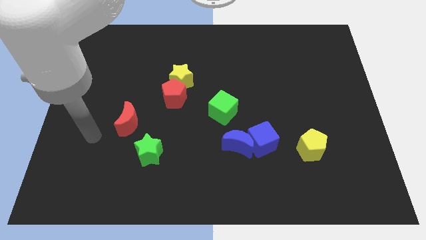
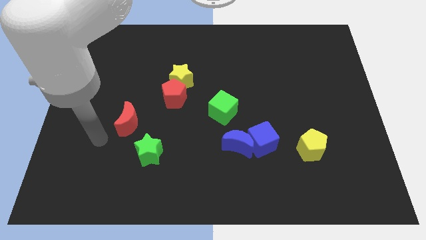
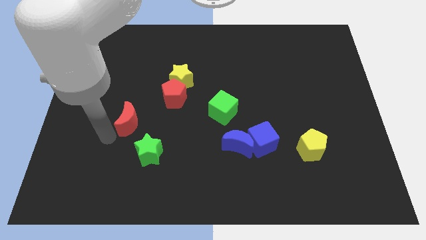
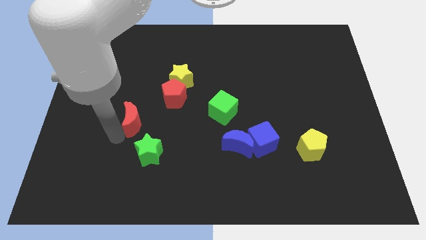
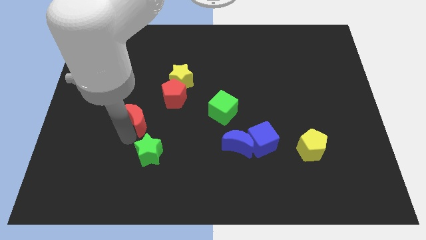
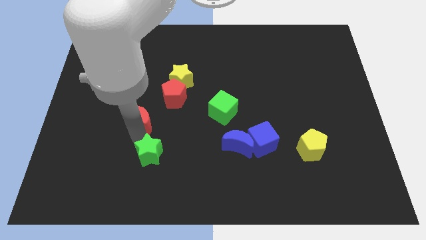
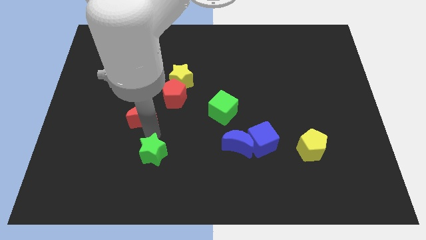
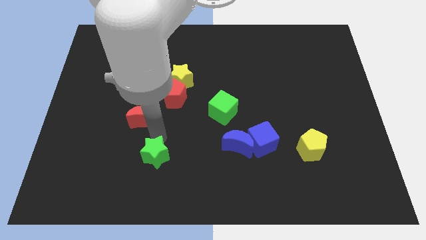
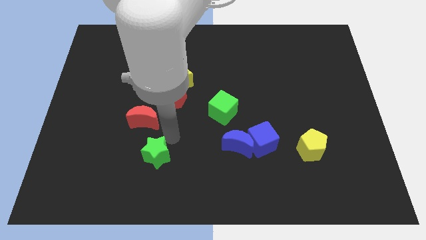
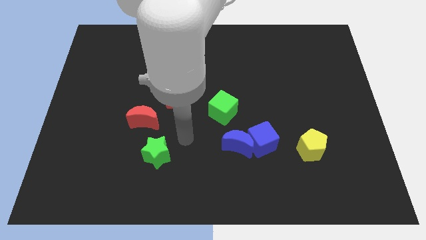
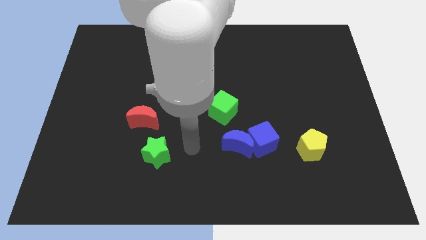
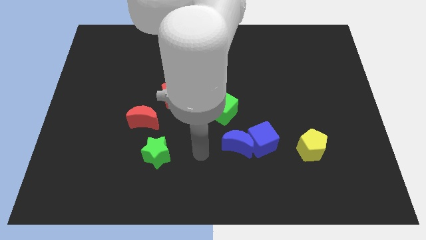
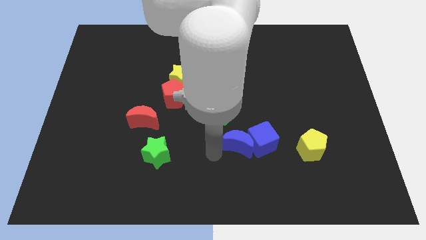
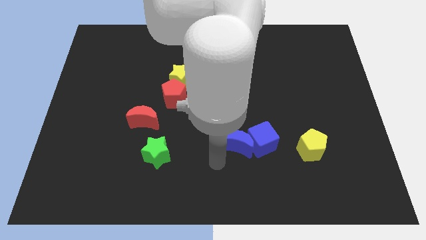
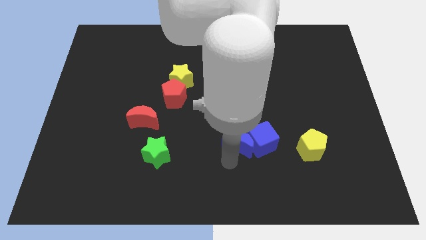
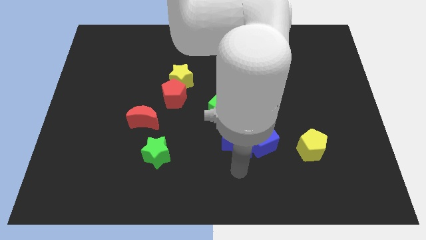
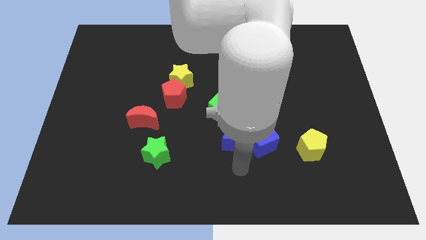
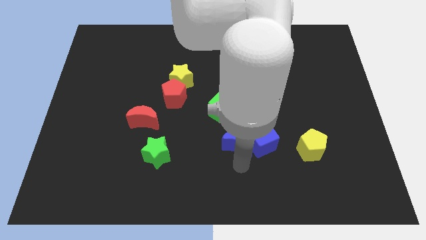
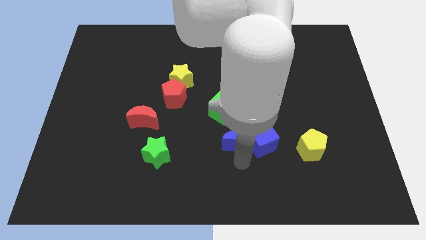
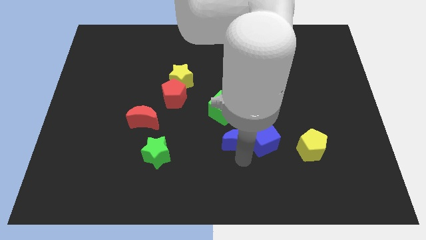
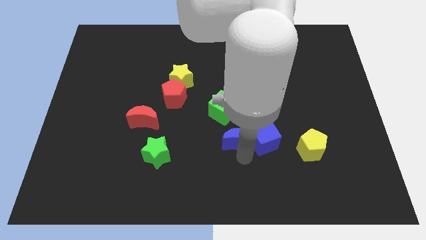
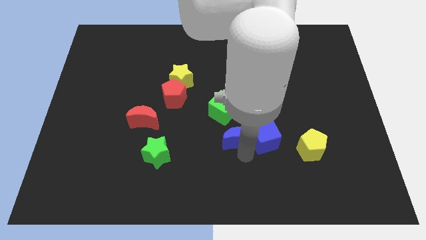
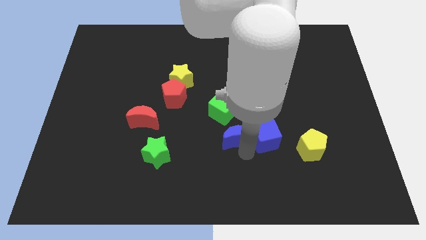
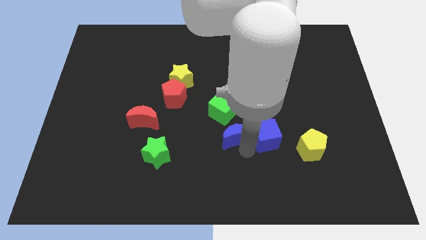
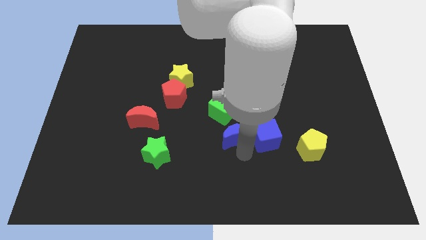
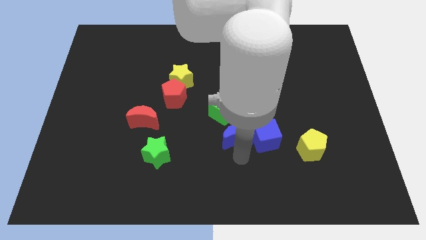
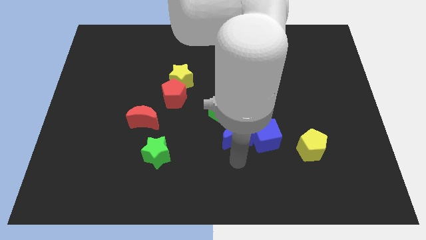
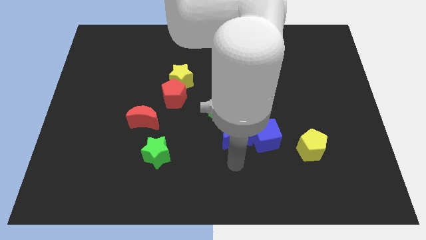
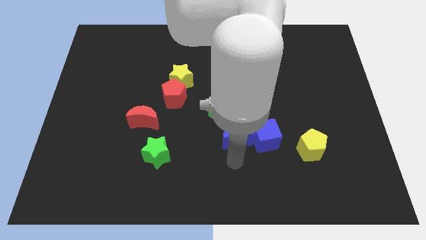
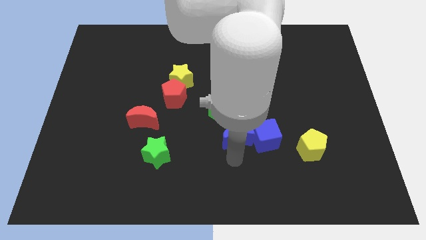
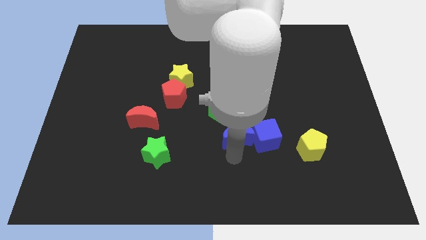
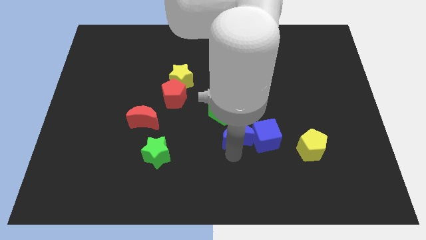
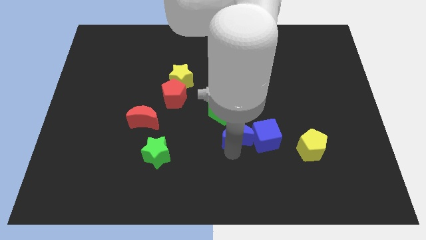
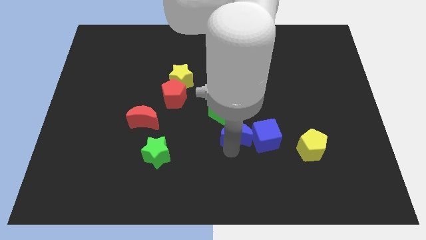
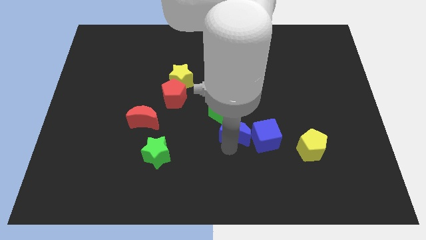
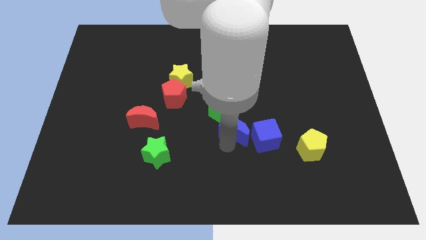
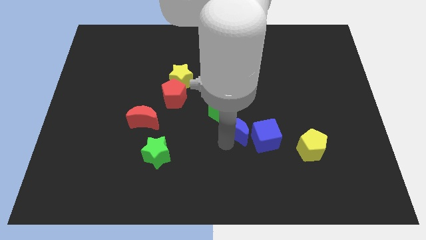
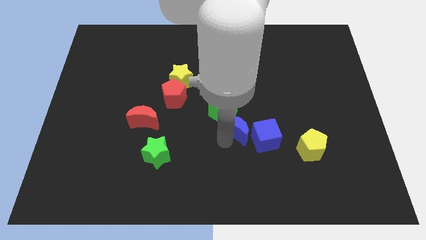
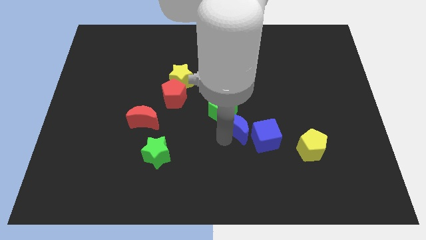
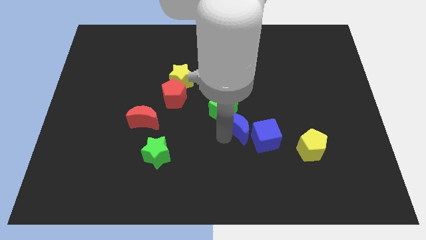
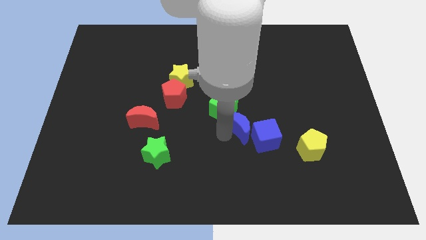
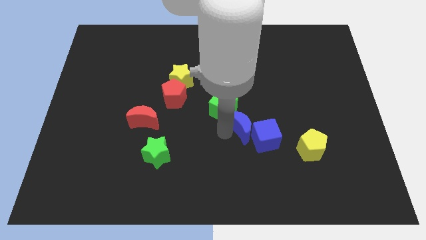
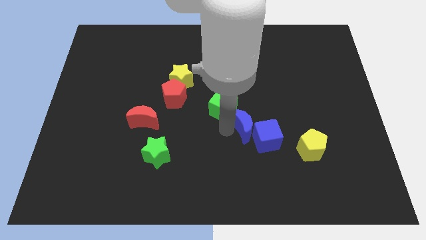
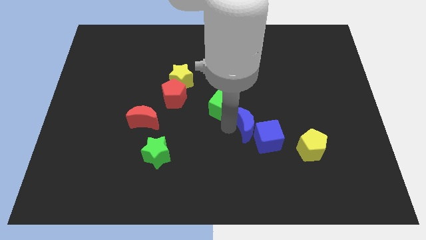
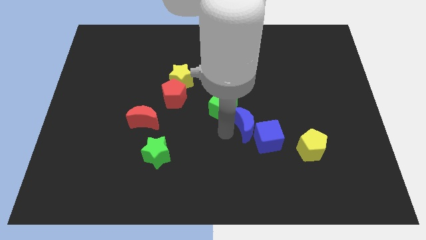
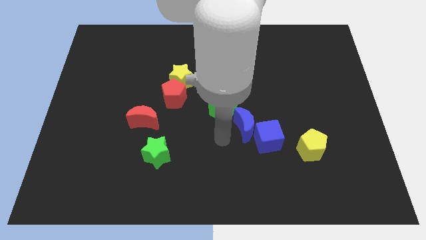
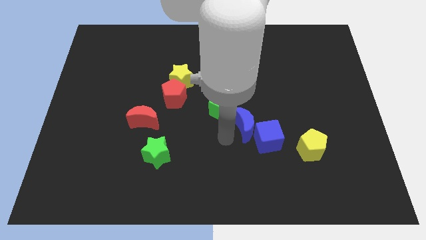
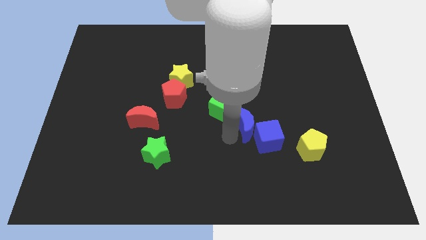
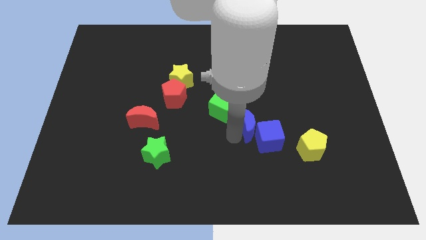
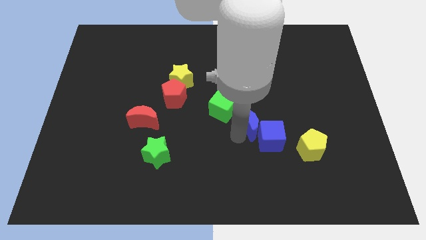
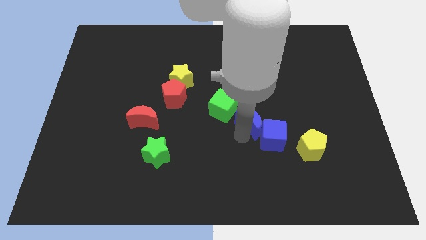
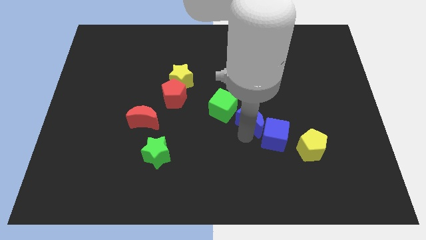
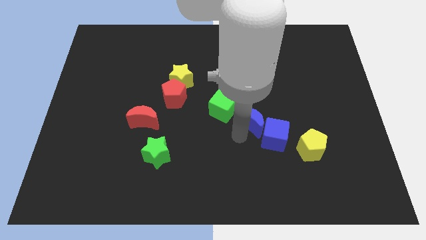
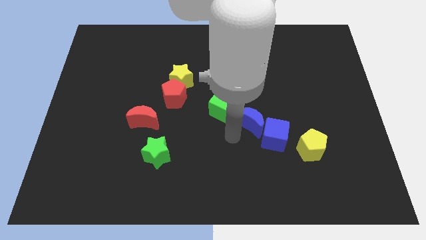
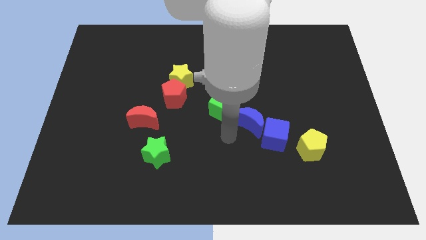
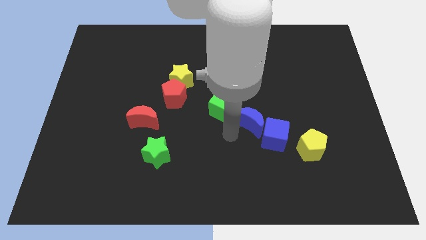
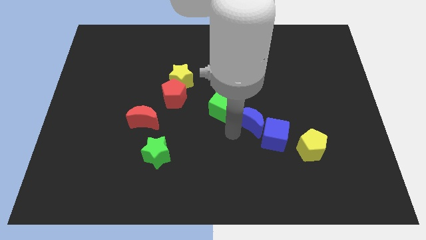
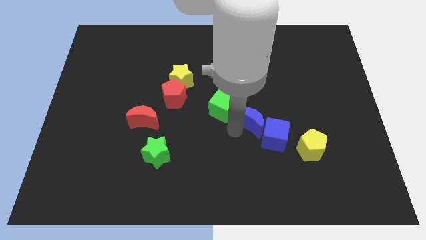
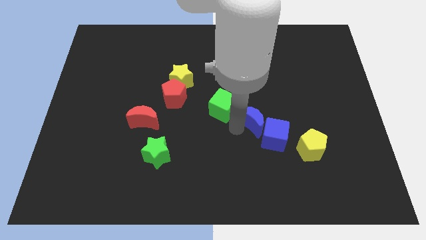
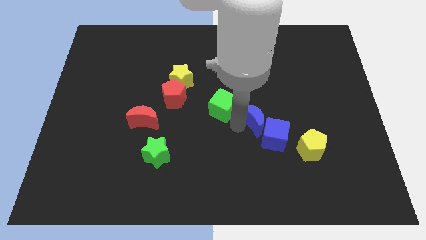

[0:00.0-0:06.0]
slightly slide the blue moon up and to the right diagonally

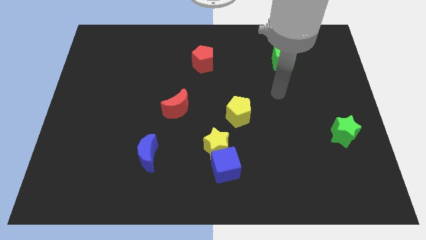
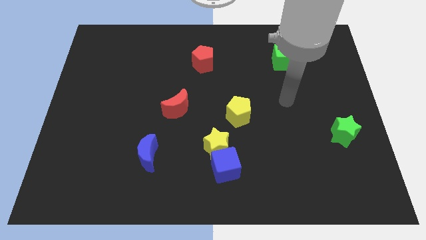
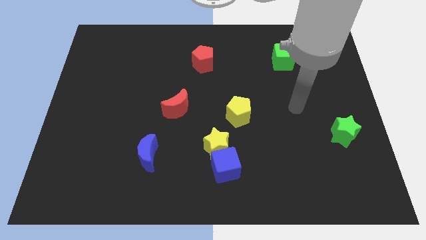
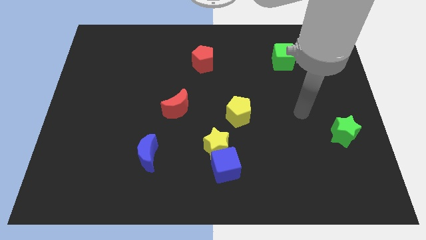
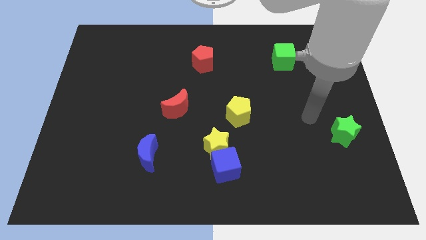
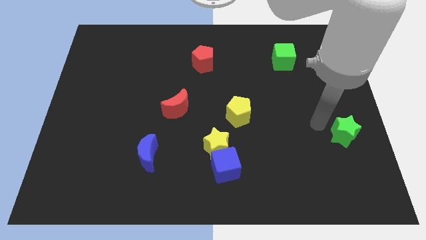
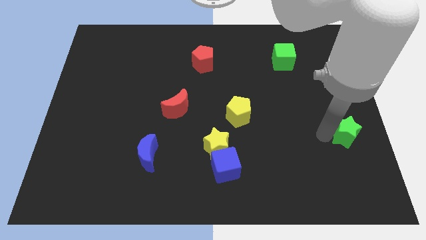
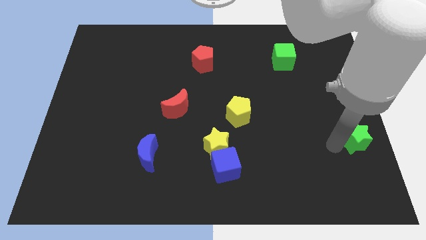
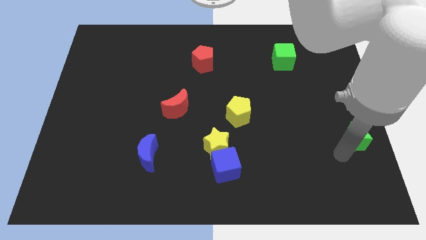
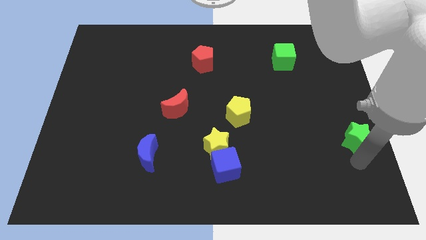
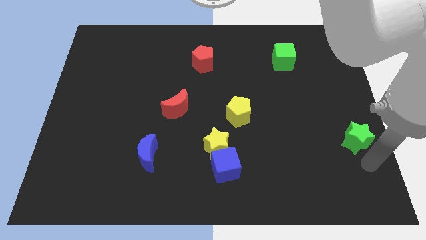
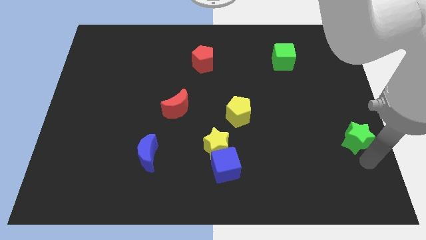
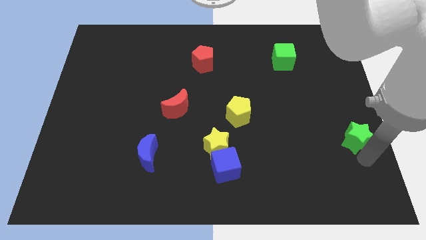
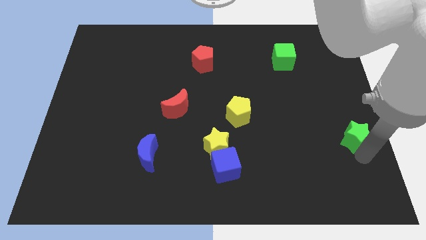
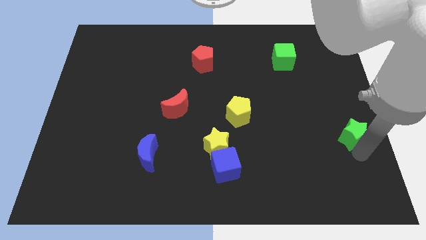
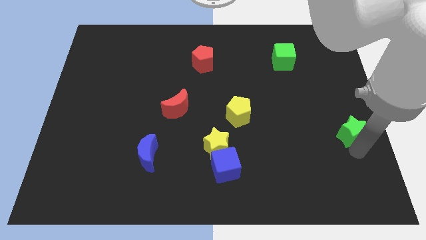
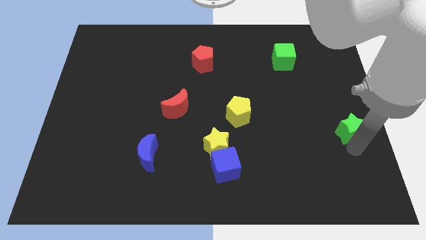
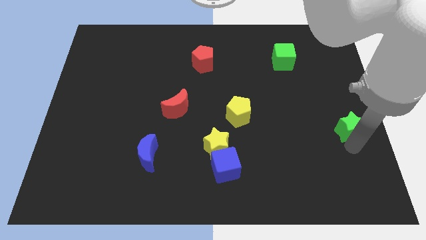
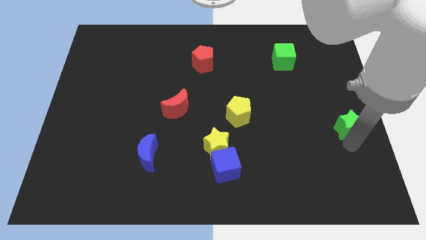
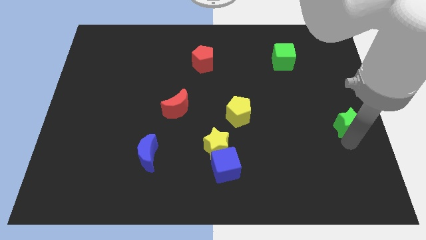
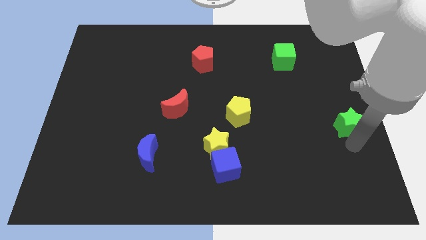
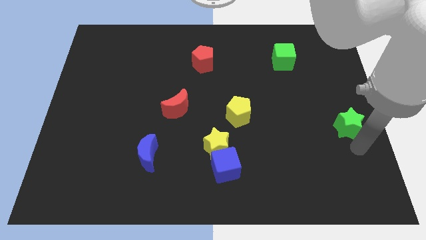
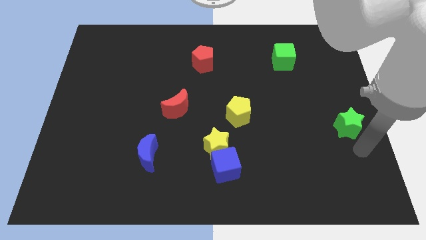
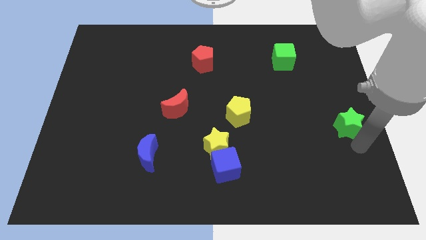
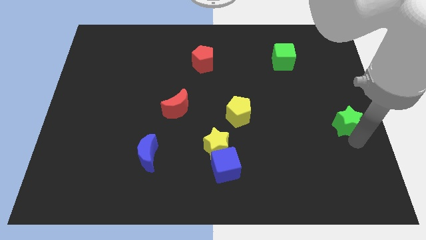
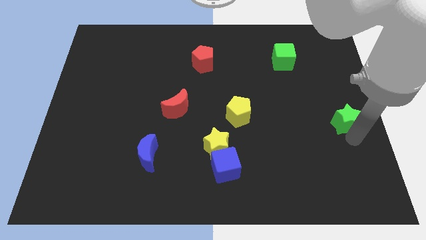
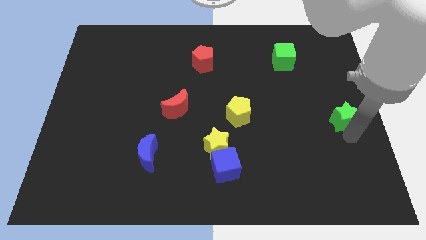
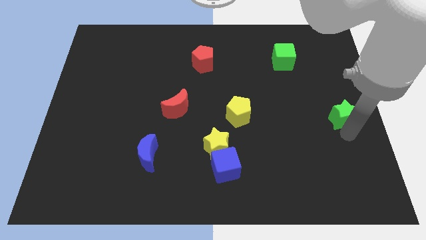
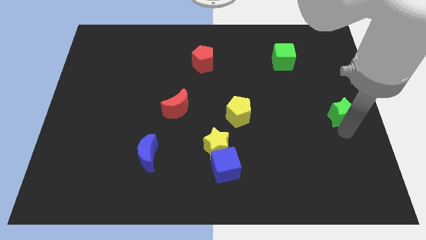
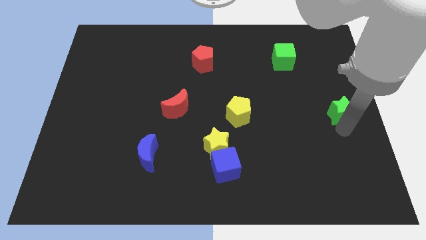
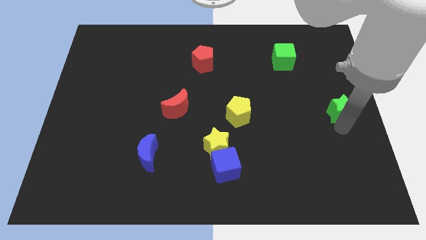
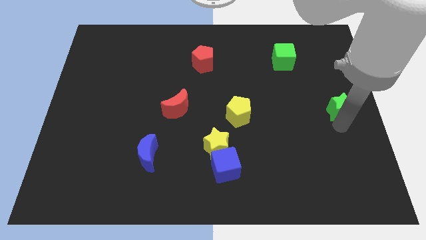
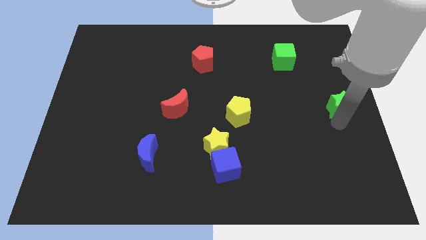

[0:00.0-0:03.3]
slide the green star slightly up
